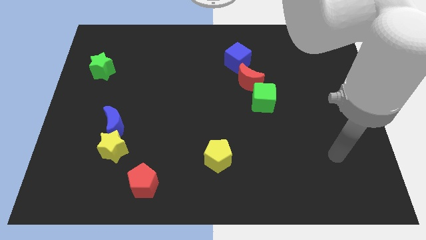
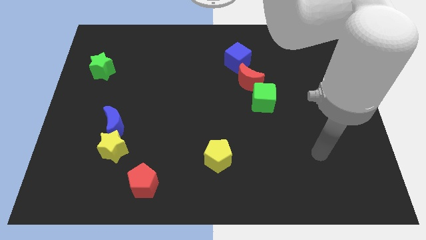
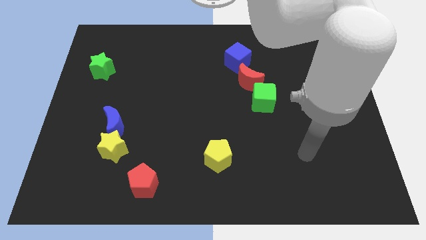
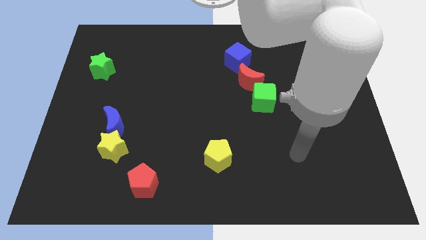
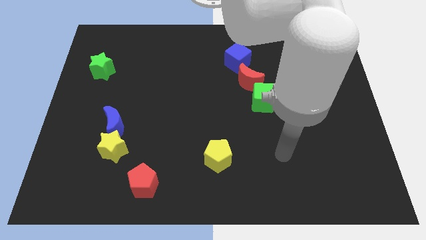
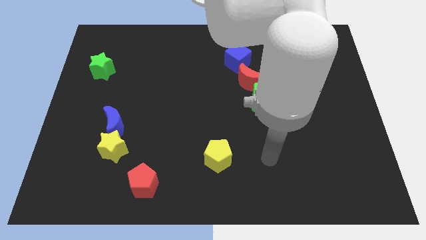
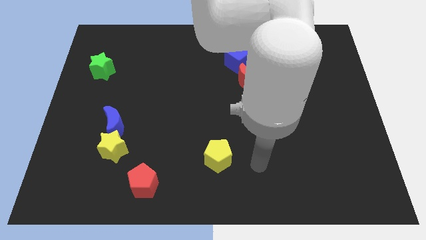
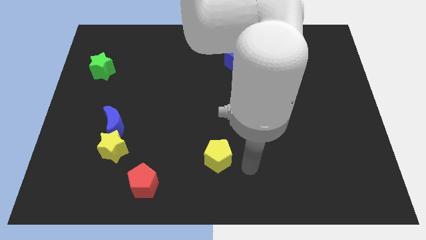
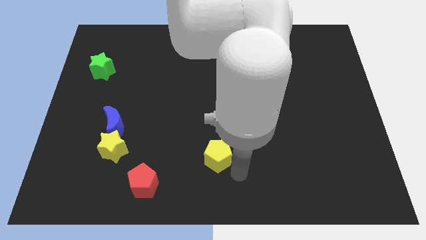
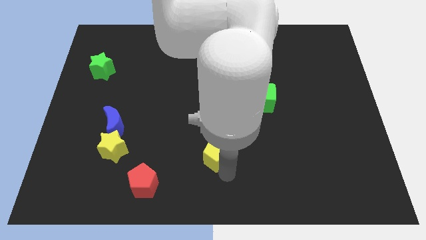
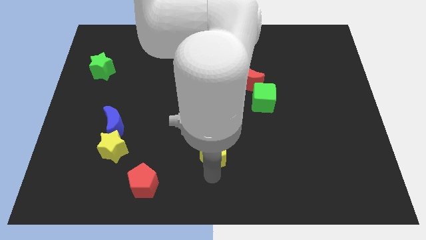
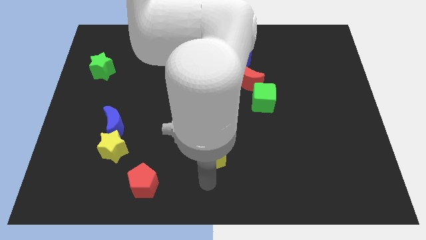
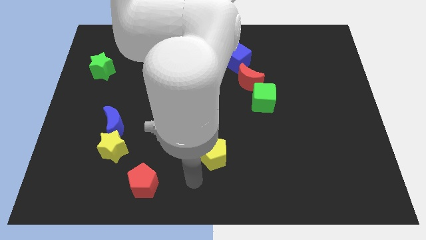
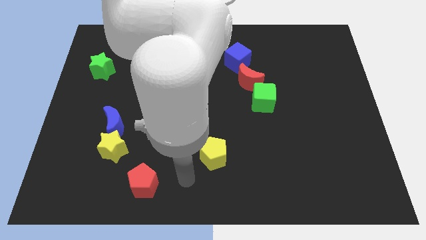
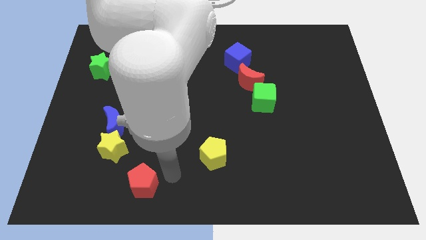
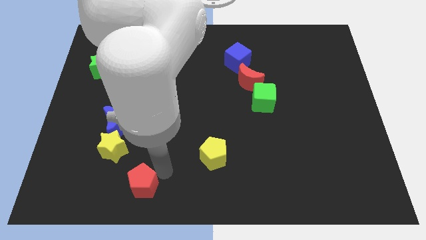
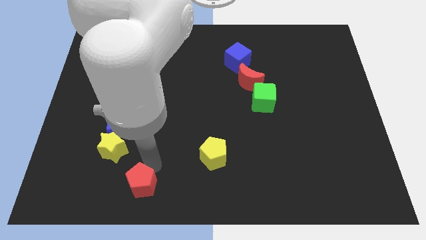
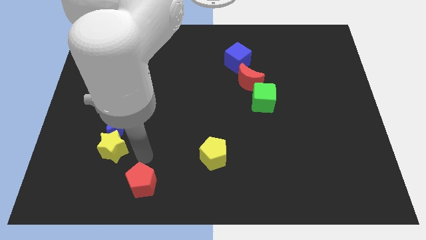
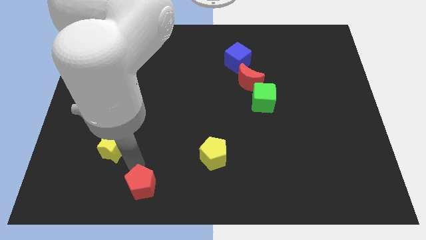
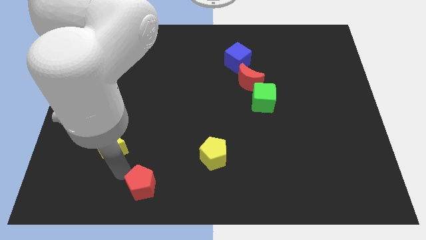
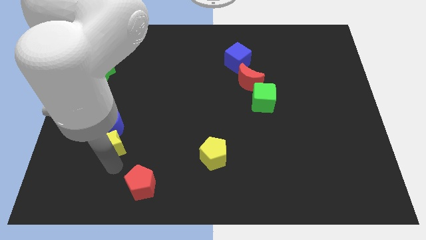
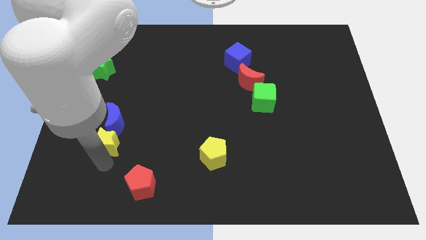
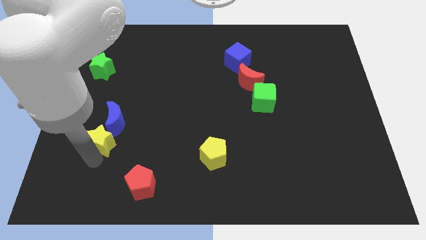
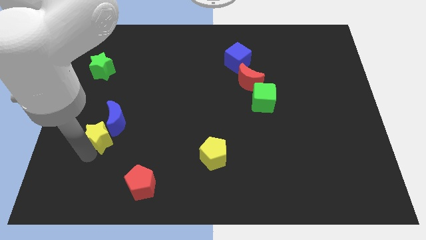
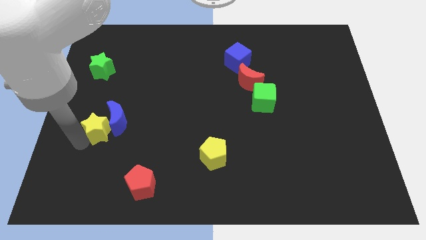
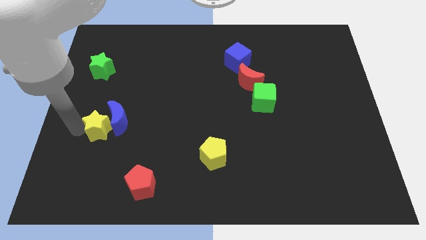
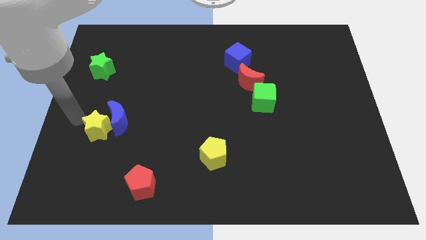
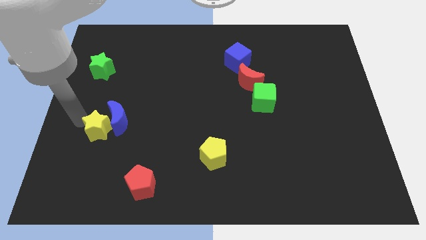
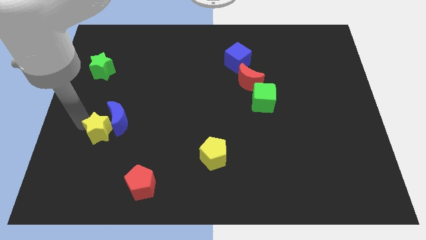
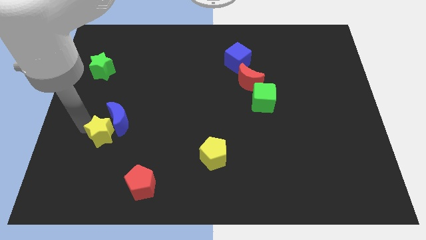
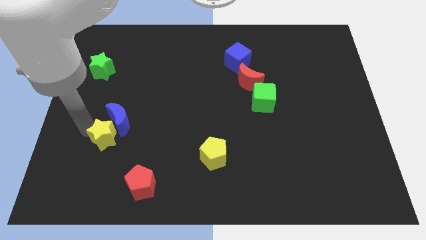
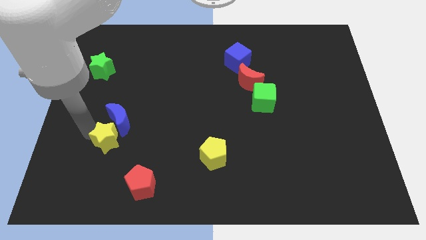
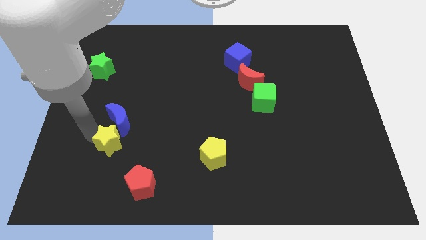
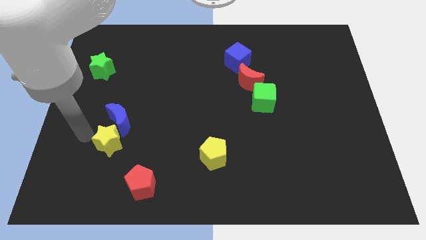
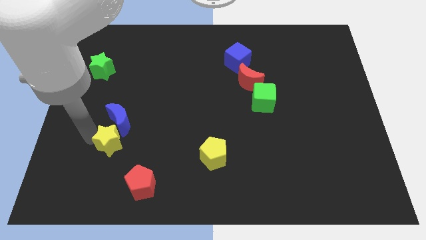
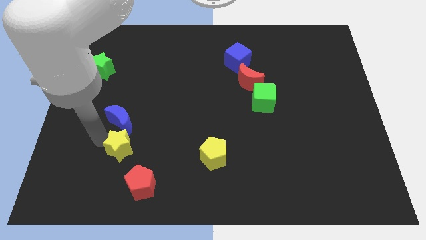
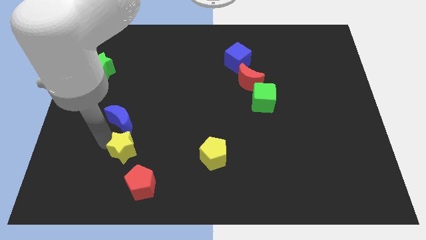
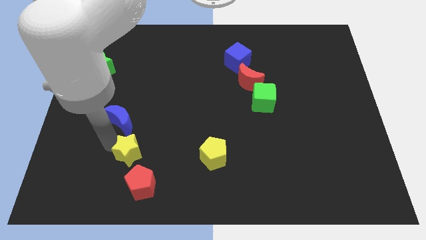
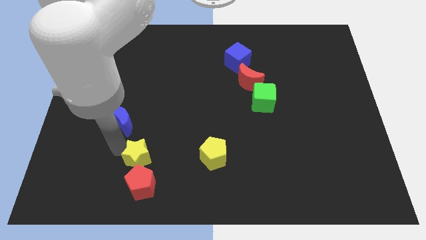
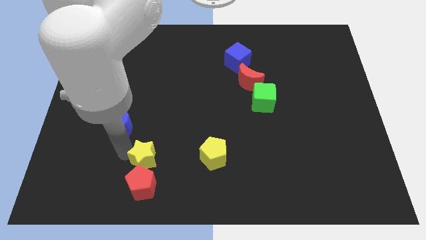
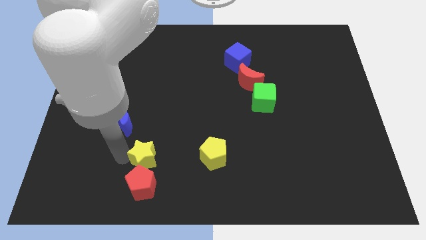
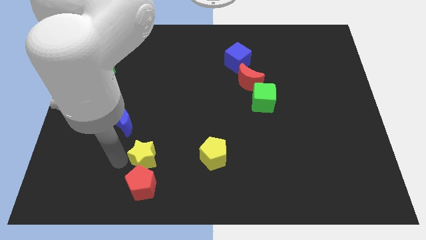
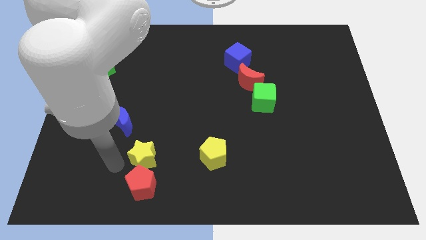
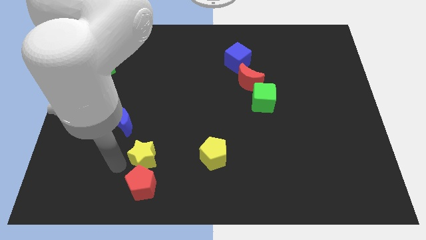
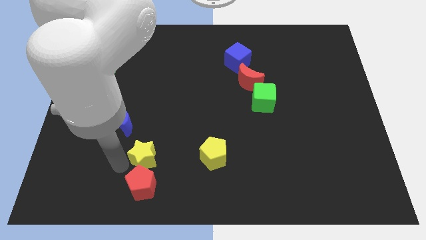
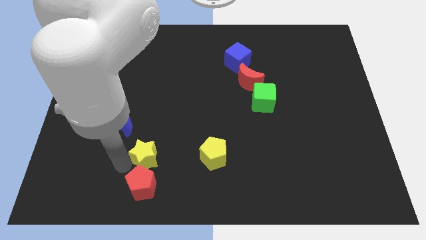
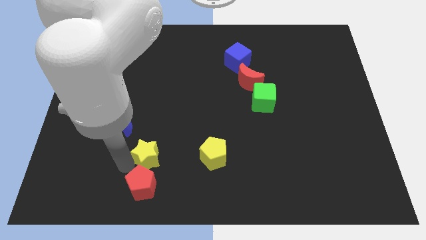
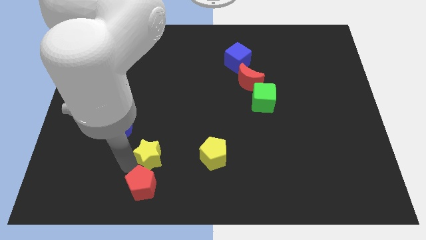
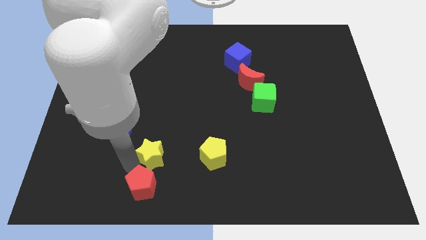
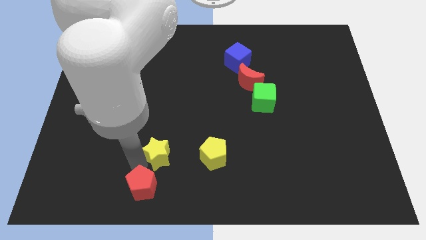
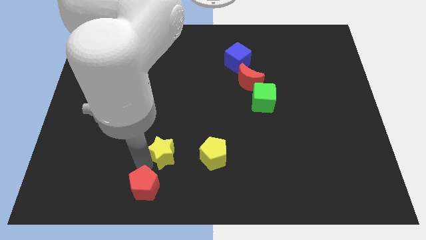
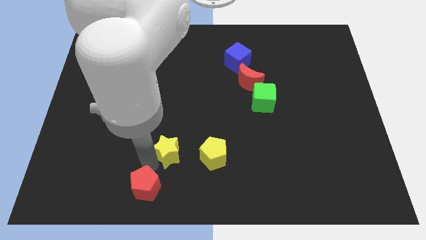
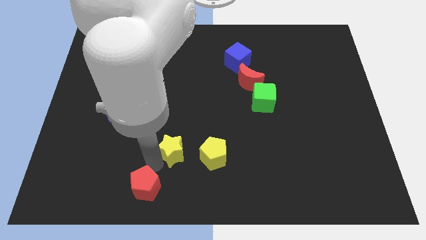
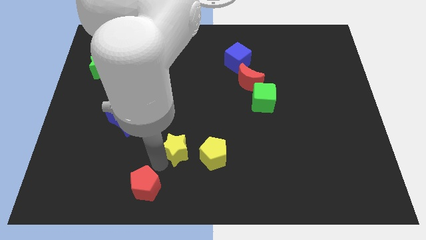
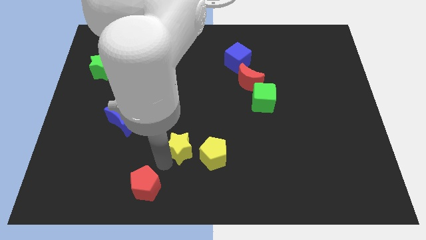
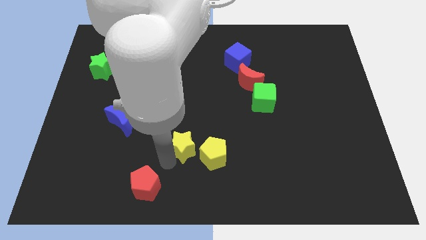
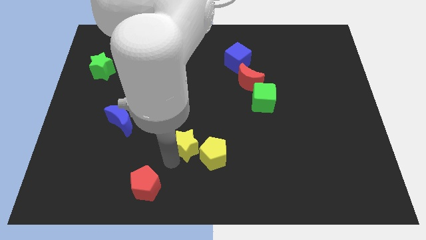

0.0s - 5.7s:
put the yellow star close to the yellow pentagon

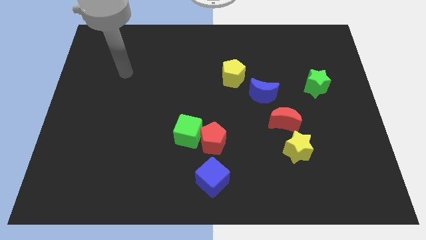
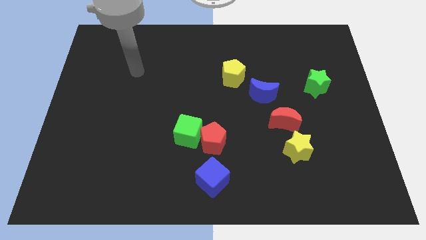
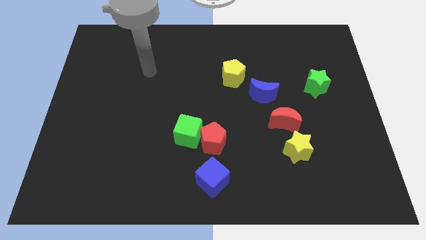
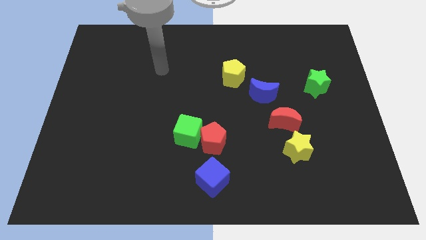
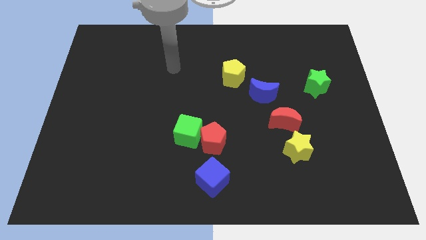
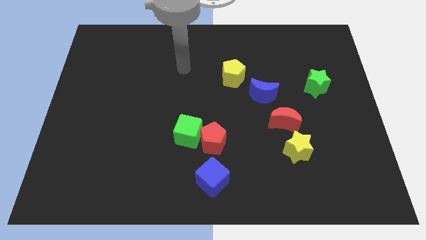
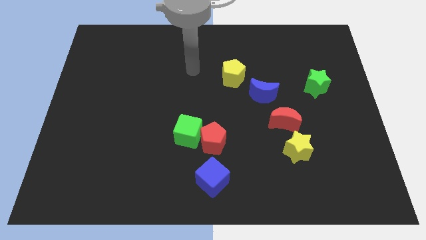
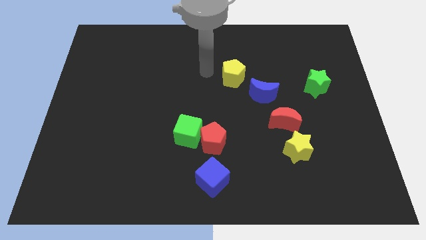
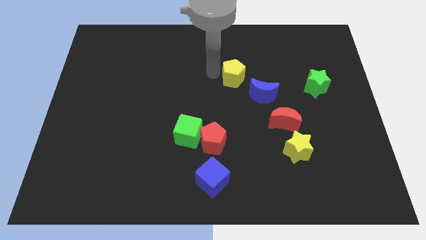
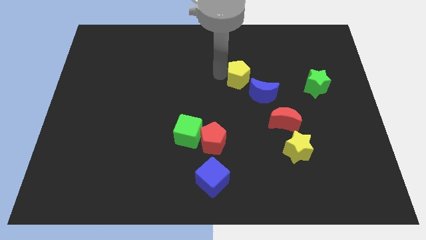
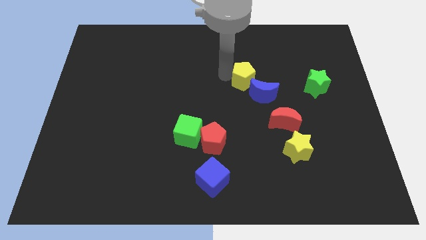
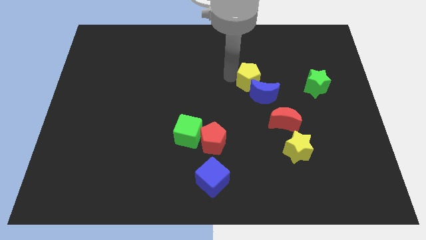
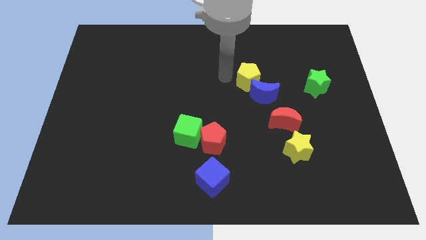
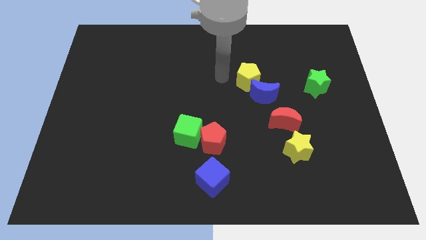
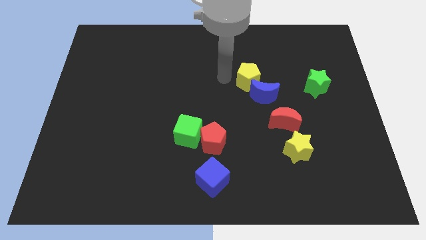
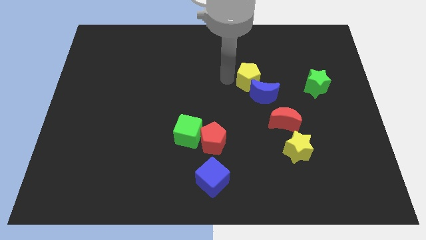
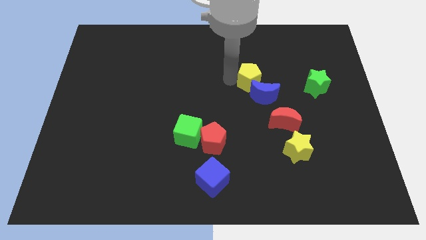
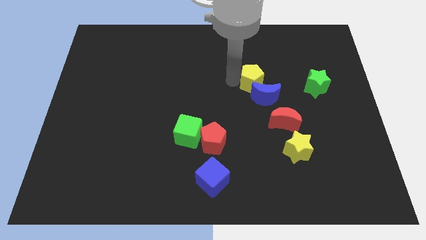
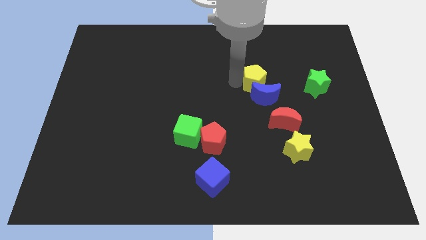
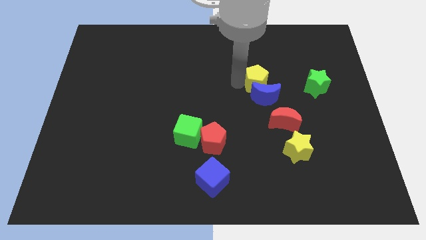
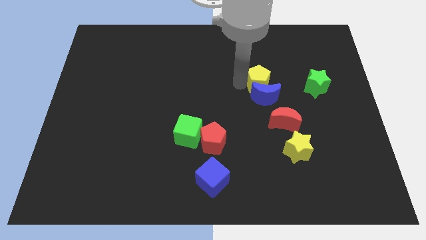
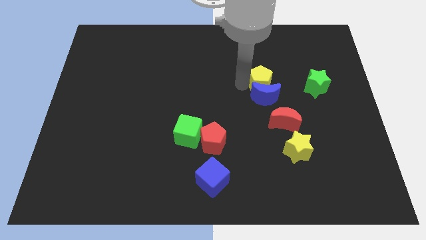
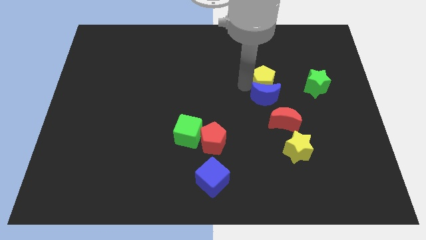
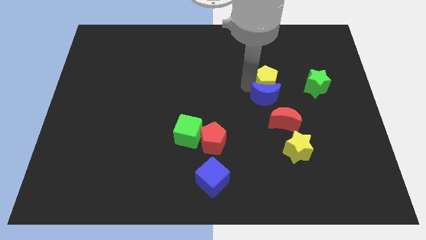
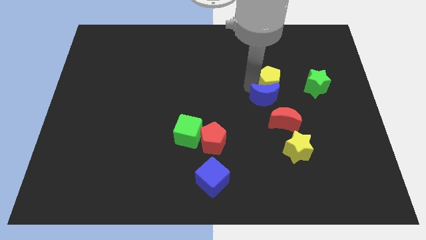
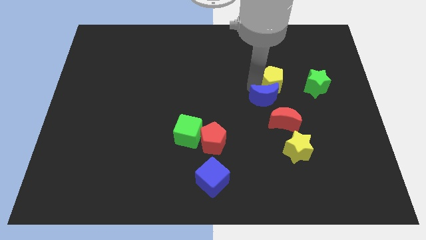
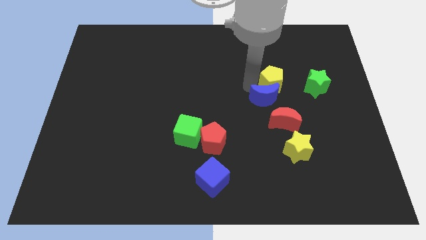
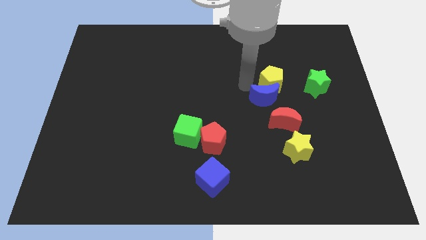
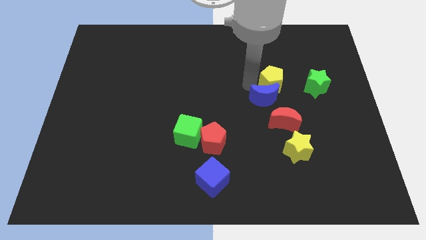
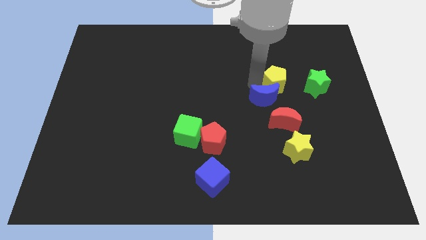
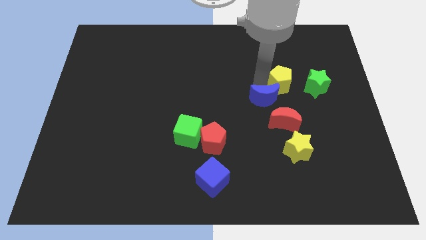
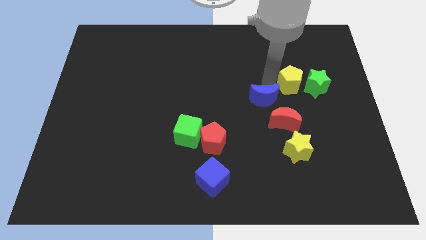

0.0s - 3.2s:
slide the yellow pentagon towards the green star
